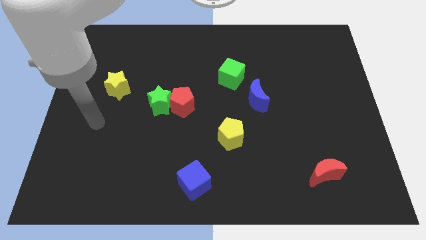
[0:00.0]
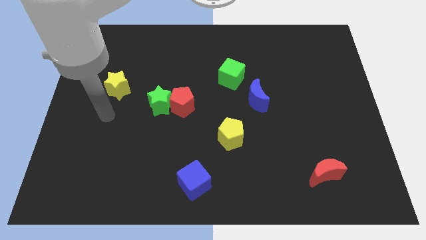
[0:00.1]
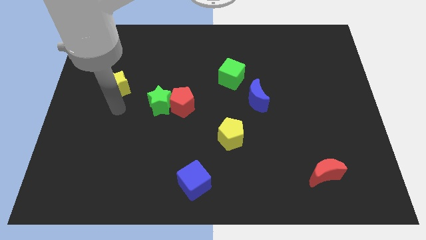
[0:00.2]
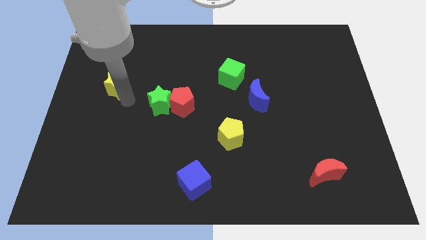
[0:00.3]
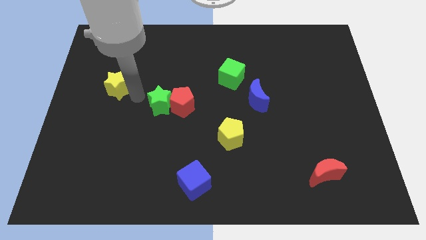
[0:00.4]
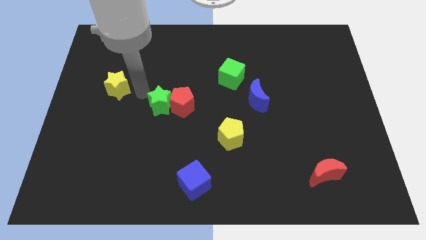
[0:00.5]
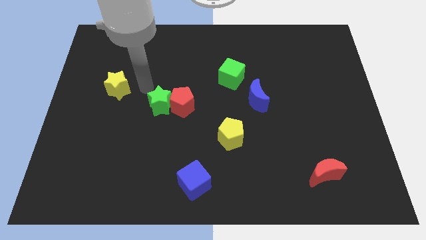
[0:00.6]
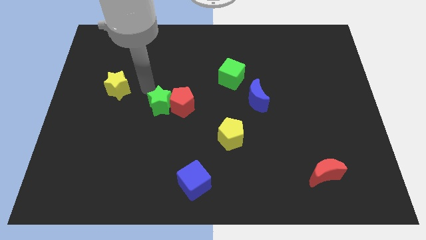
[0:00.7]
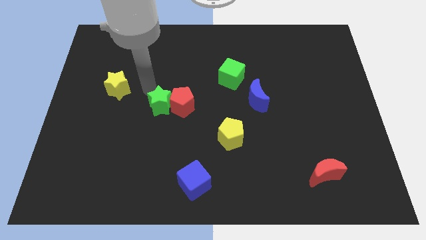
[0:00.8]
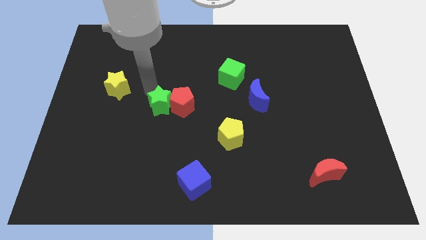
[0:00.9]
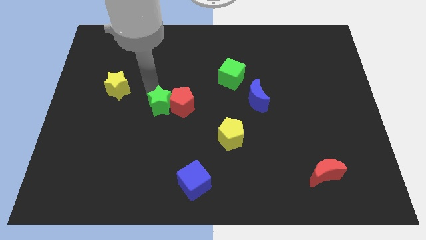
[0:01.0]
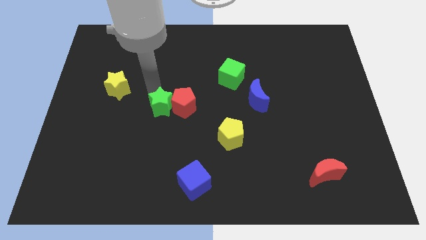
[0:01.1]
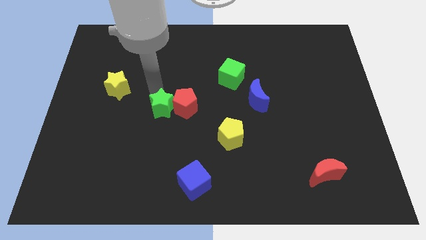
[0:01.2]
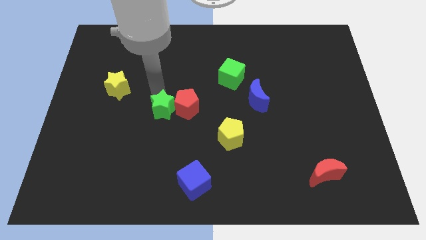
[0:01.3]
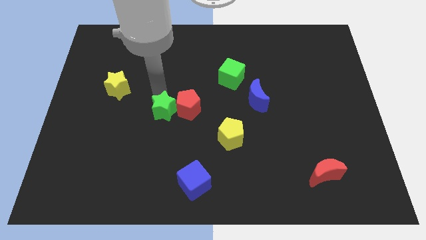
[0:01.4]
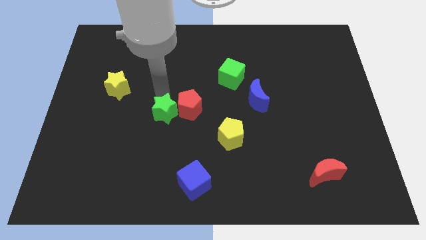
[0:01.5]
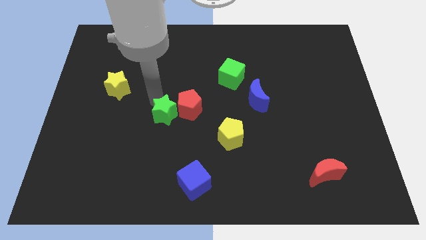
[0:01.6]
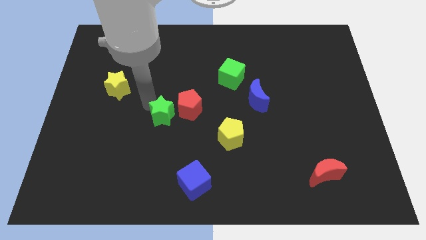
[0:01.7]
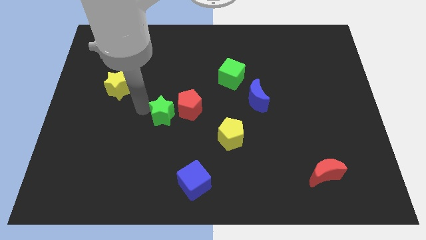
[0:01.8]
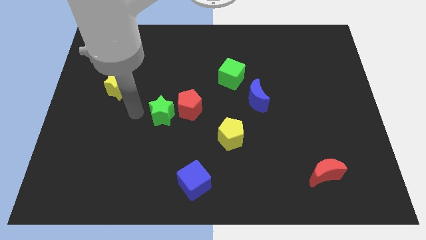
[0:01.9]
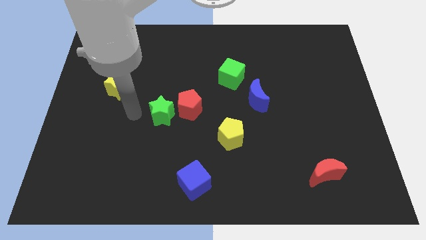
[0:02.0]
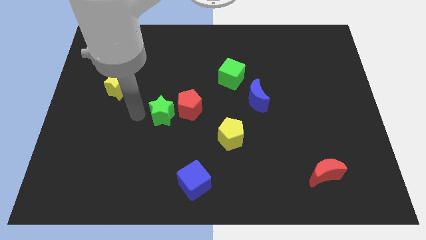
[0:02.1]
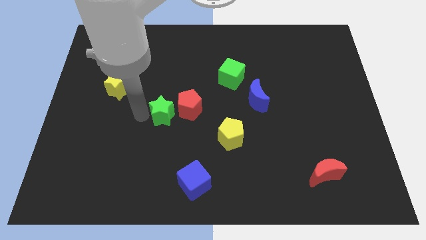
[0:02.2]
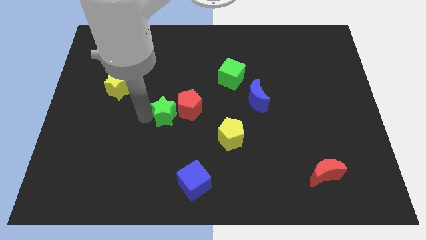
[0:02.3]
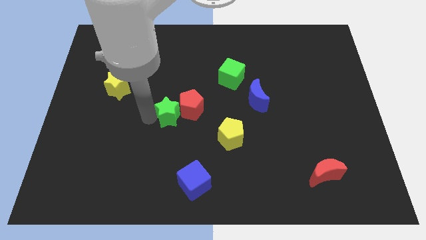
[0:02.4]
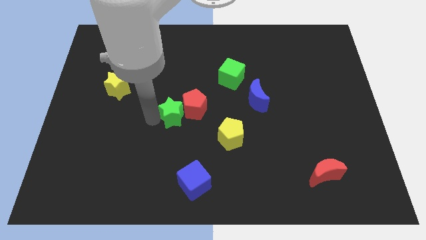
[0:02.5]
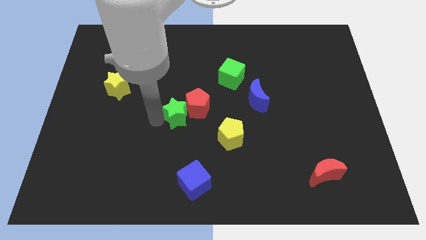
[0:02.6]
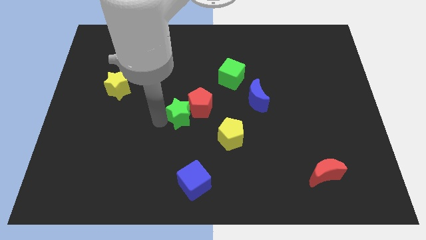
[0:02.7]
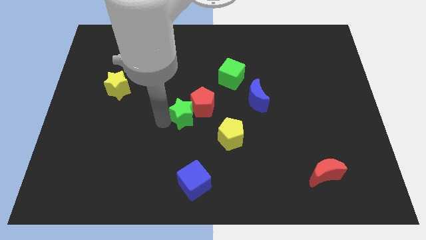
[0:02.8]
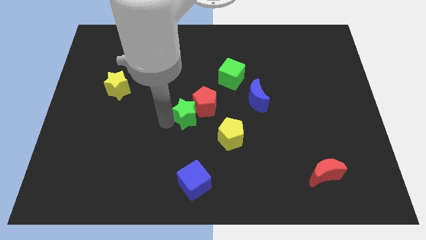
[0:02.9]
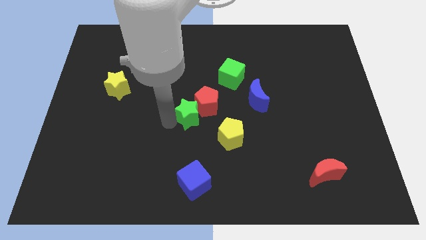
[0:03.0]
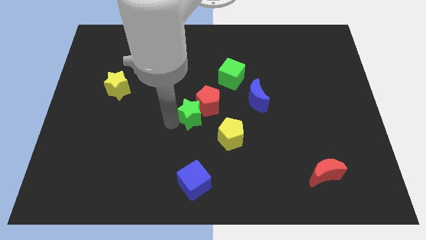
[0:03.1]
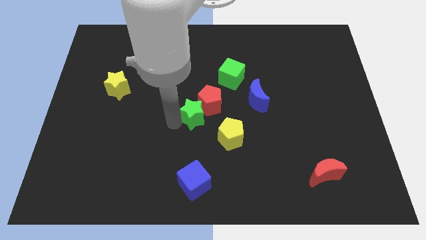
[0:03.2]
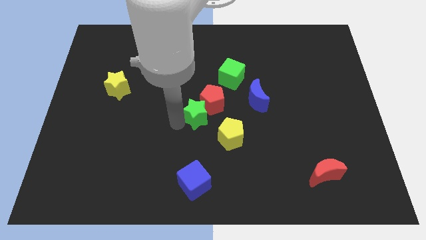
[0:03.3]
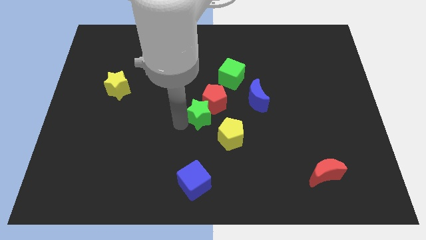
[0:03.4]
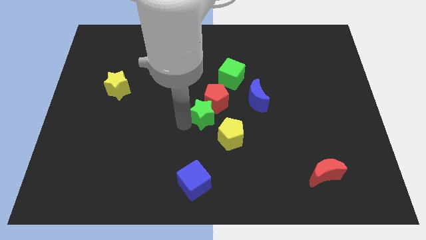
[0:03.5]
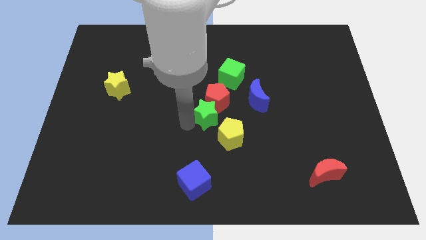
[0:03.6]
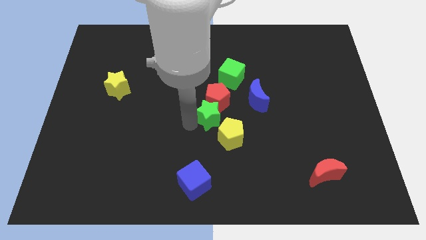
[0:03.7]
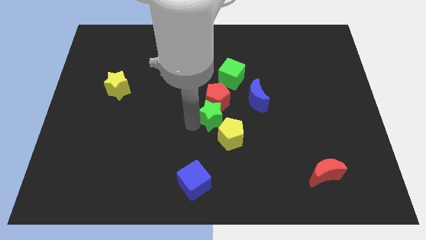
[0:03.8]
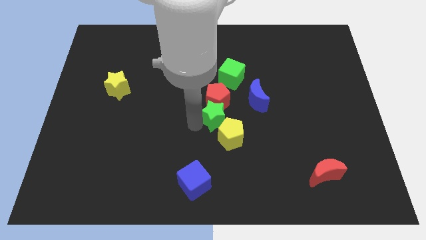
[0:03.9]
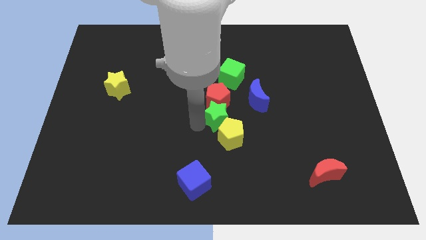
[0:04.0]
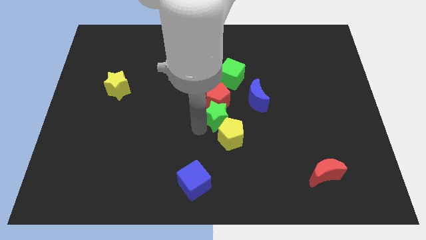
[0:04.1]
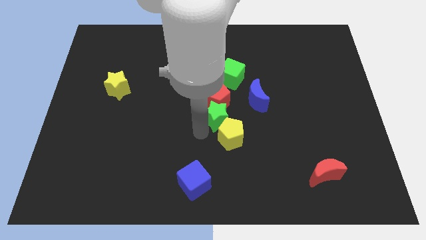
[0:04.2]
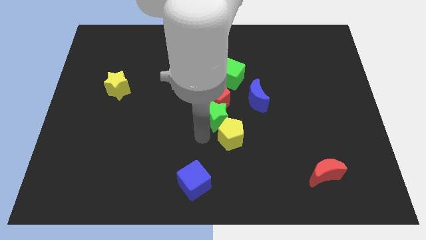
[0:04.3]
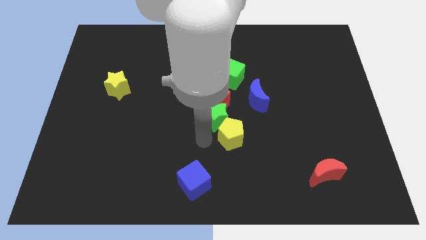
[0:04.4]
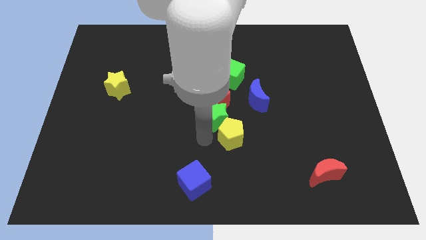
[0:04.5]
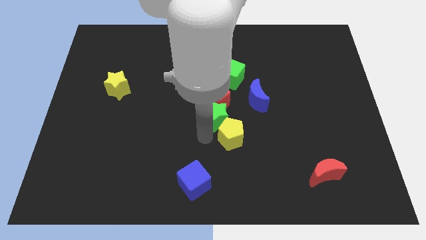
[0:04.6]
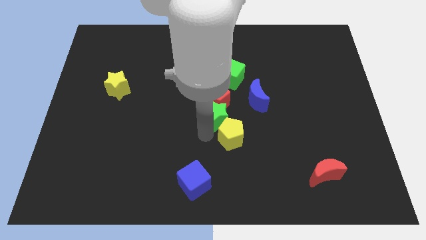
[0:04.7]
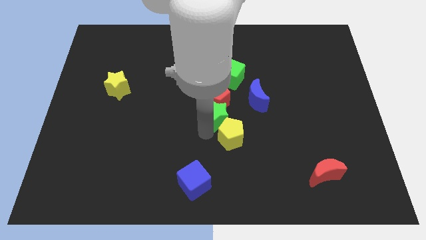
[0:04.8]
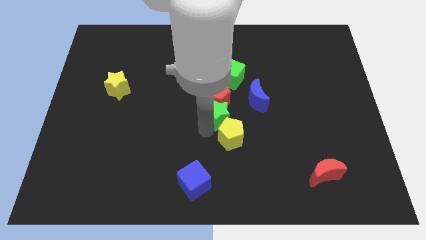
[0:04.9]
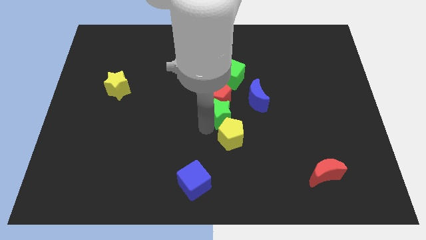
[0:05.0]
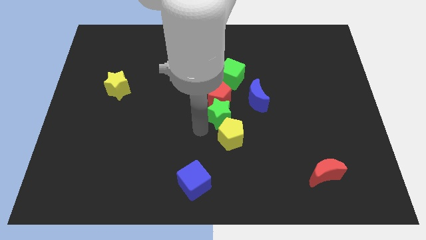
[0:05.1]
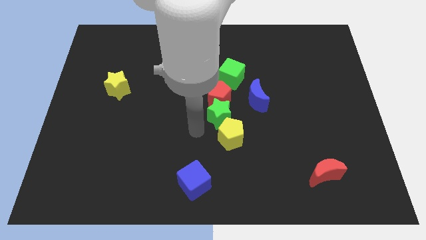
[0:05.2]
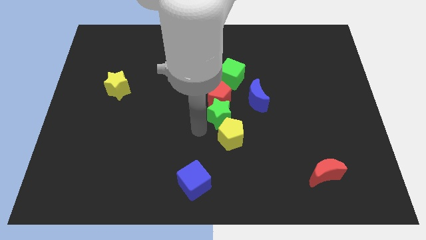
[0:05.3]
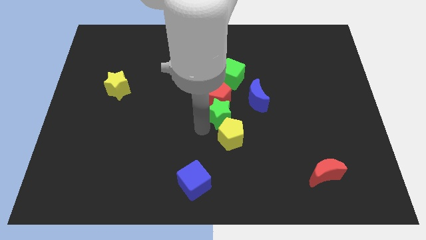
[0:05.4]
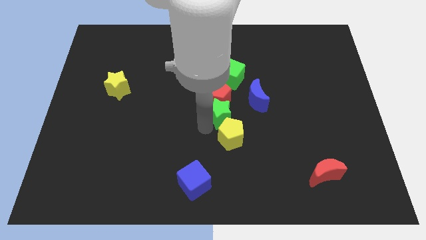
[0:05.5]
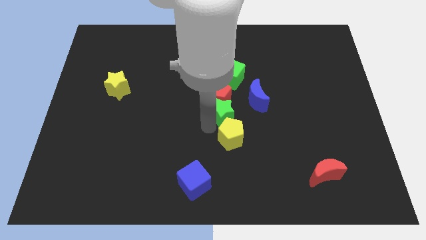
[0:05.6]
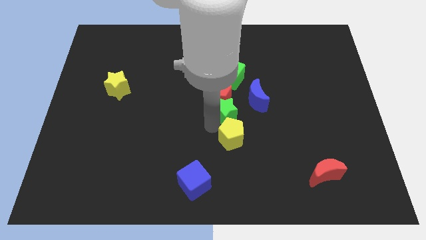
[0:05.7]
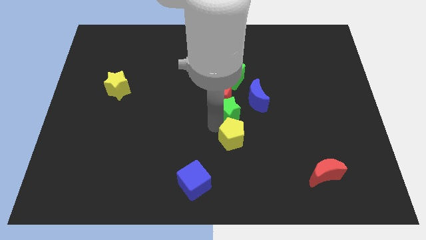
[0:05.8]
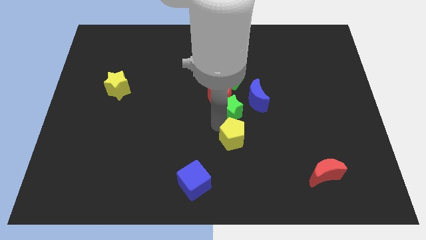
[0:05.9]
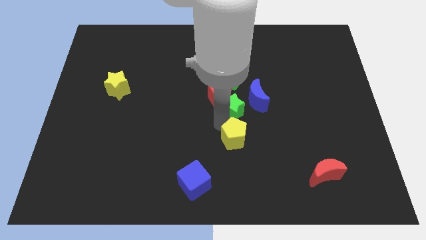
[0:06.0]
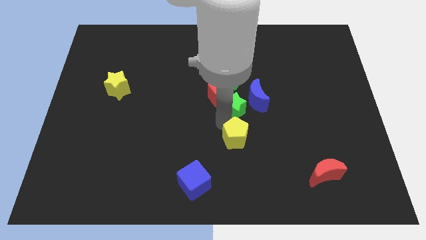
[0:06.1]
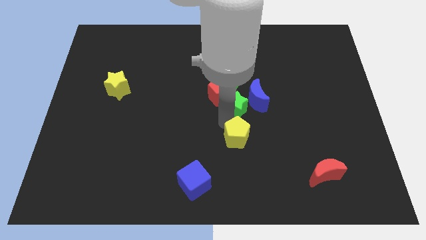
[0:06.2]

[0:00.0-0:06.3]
push the green star next to the blue moon
